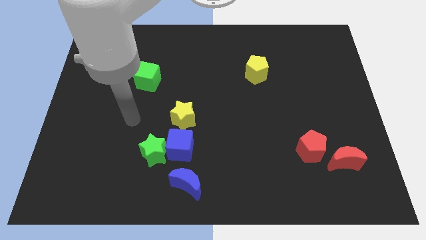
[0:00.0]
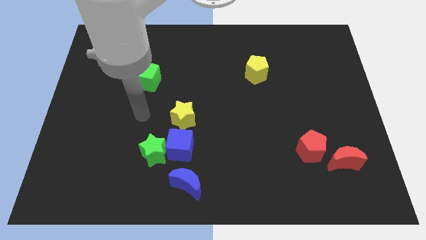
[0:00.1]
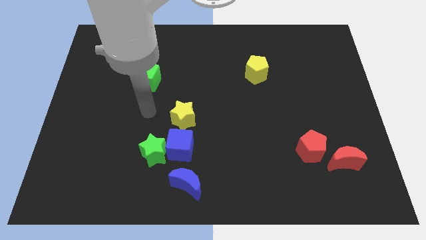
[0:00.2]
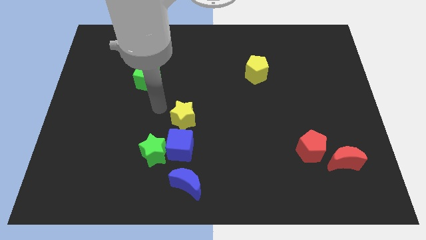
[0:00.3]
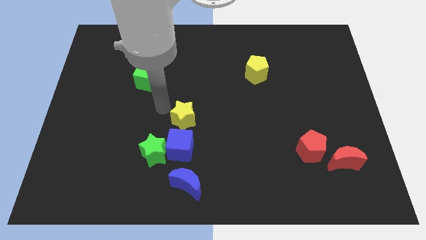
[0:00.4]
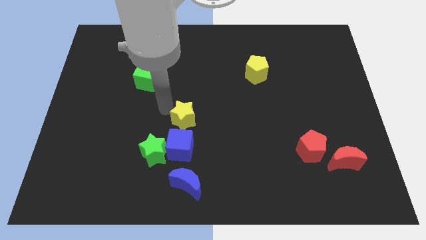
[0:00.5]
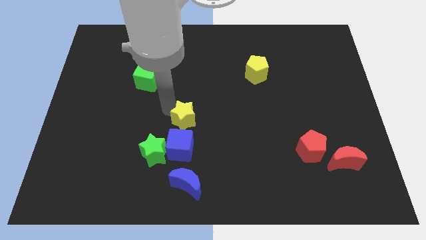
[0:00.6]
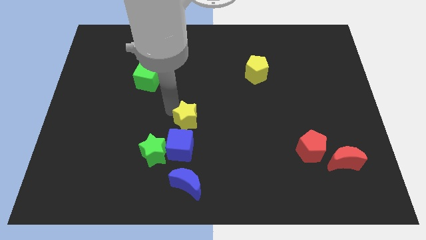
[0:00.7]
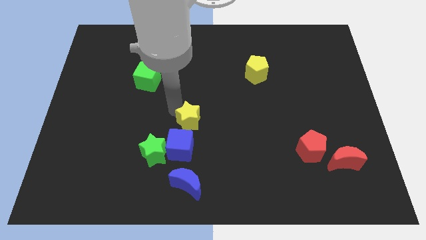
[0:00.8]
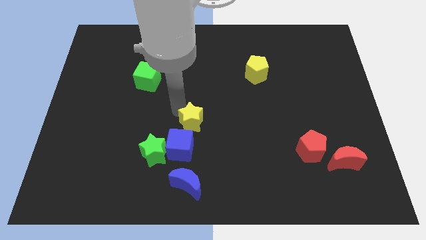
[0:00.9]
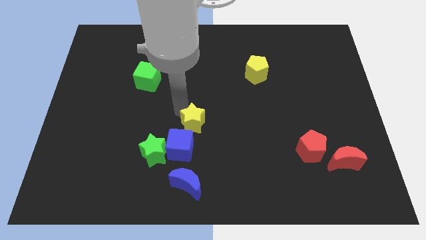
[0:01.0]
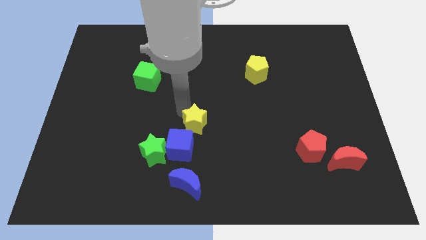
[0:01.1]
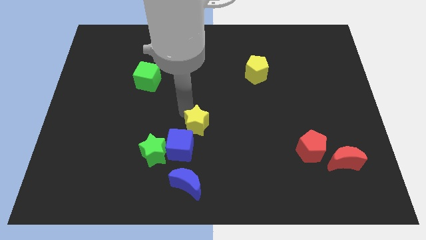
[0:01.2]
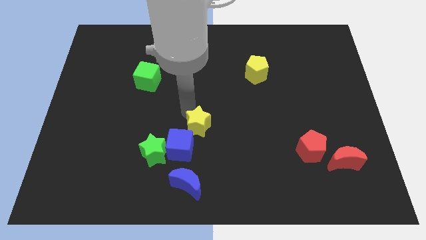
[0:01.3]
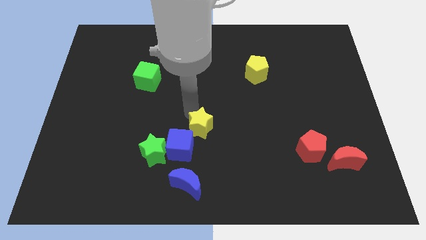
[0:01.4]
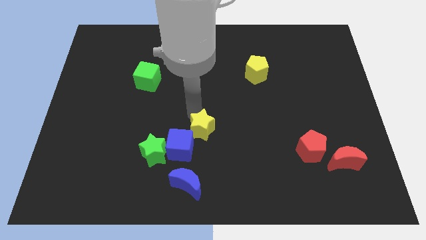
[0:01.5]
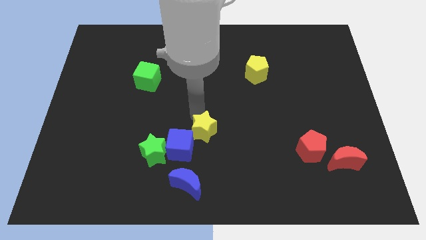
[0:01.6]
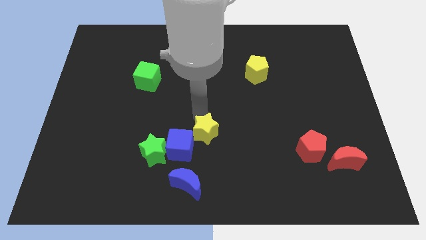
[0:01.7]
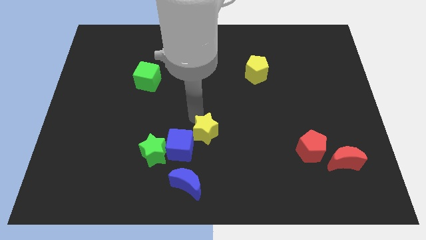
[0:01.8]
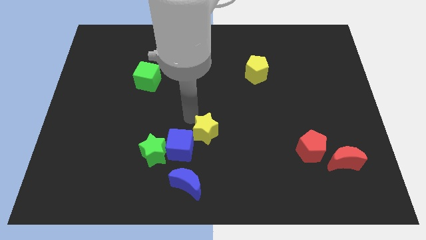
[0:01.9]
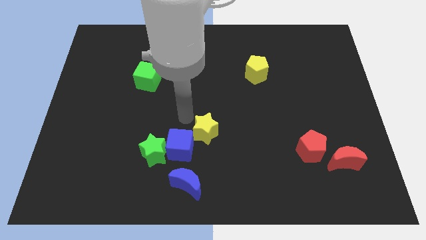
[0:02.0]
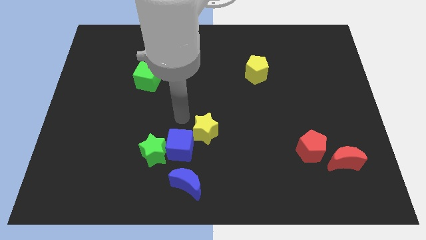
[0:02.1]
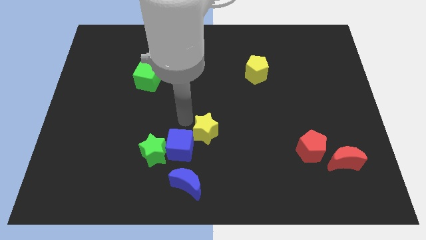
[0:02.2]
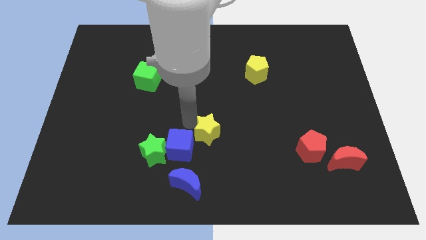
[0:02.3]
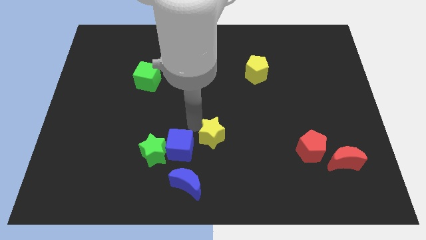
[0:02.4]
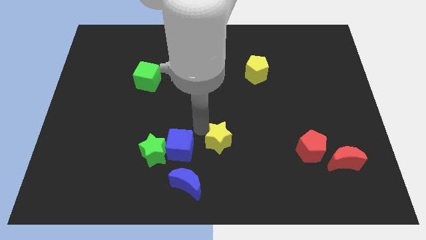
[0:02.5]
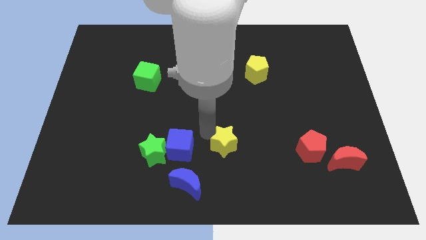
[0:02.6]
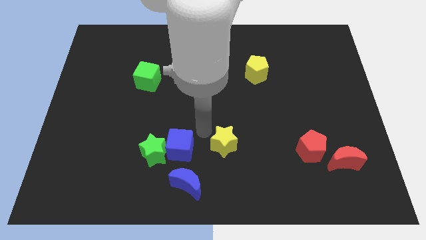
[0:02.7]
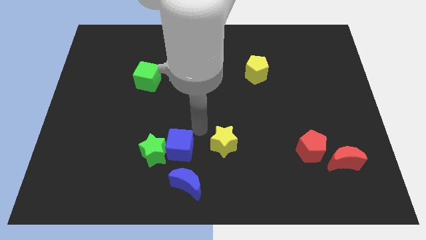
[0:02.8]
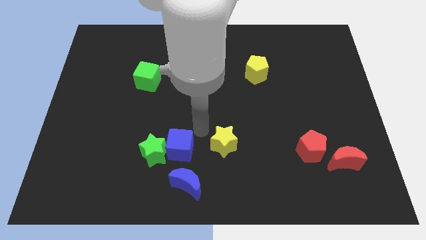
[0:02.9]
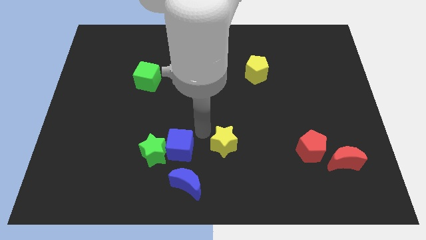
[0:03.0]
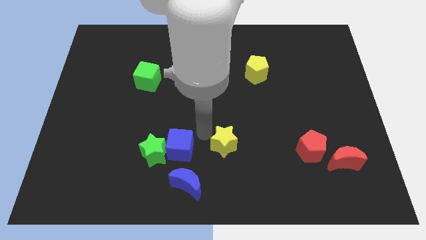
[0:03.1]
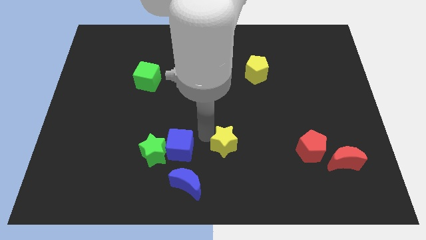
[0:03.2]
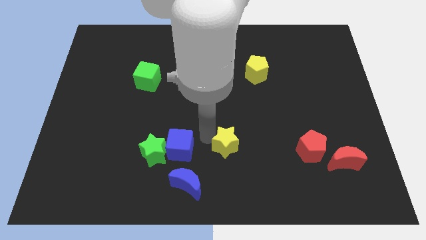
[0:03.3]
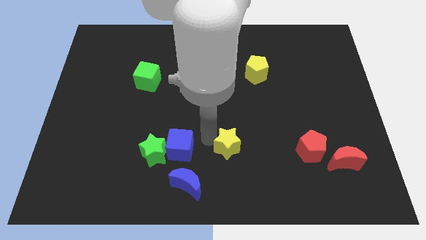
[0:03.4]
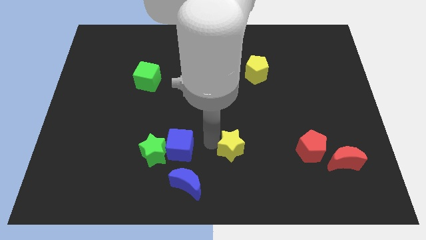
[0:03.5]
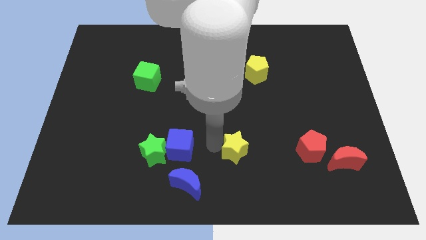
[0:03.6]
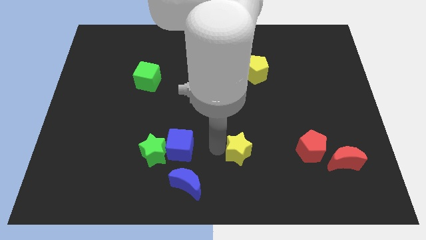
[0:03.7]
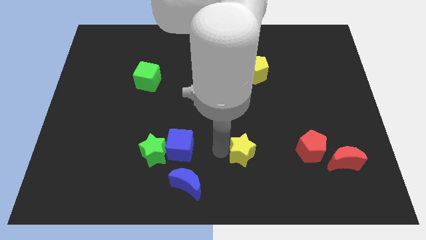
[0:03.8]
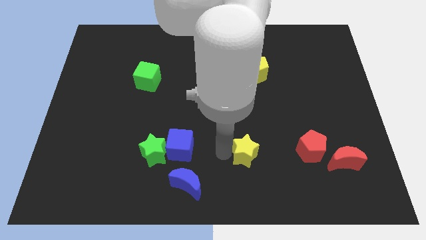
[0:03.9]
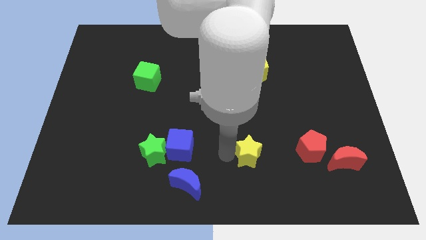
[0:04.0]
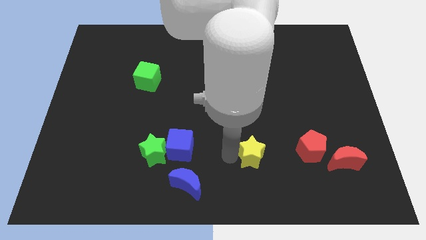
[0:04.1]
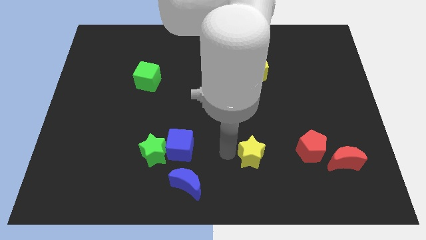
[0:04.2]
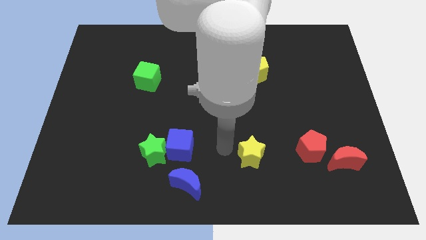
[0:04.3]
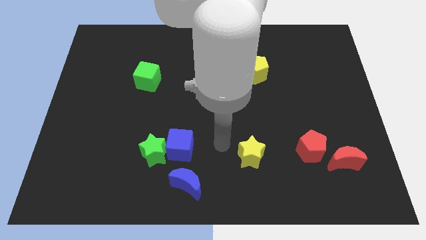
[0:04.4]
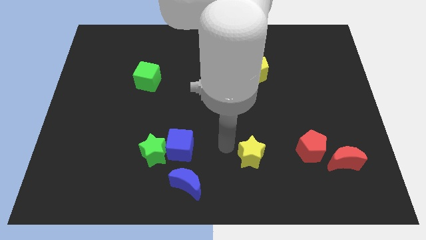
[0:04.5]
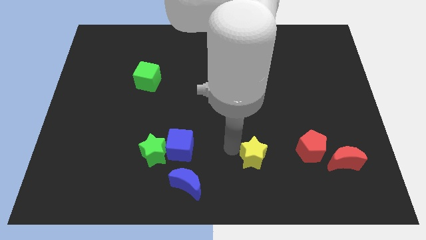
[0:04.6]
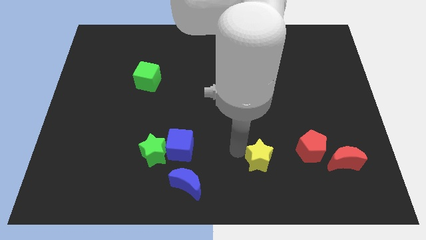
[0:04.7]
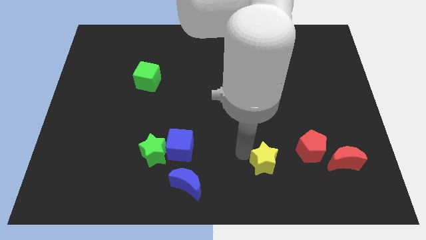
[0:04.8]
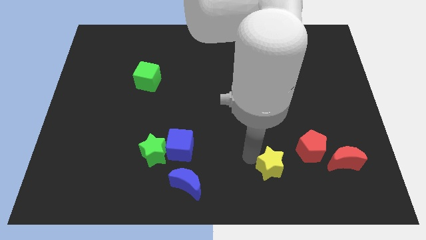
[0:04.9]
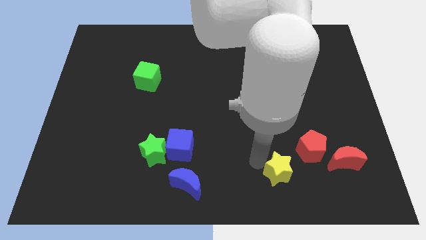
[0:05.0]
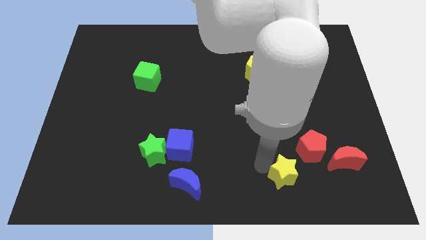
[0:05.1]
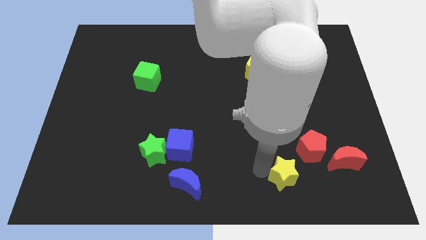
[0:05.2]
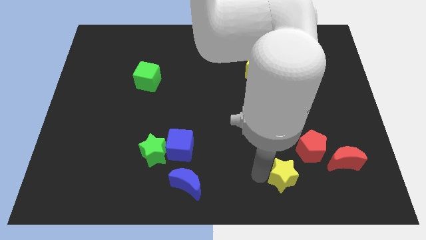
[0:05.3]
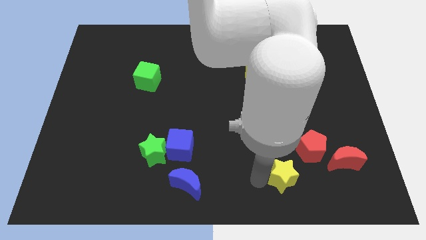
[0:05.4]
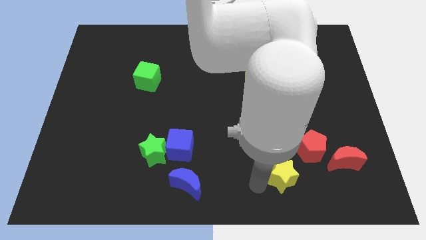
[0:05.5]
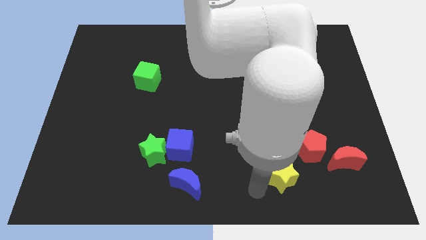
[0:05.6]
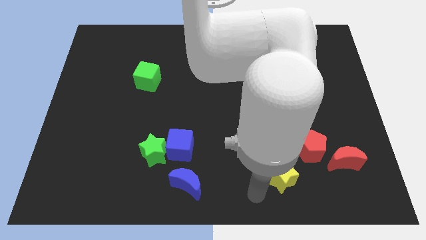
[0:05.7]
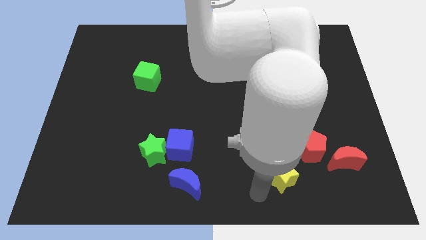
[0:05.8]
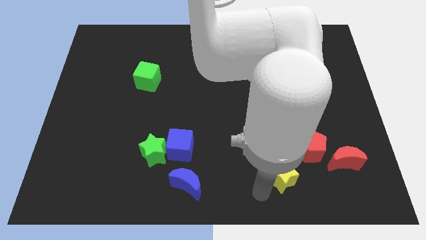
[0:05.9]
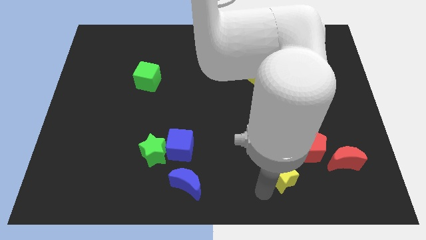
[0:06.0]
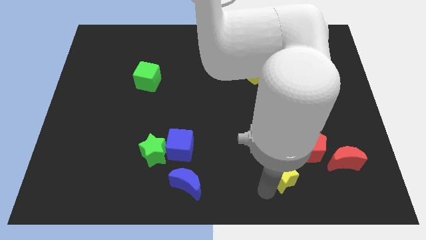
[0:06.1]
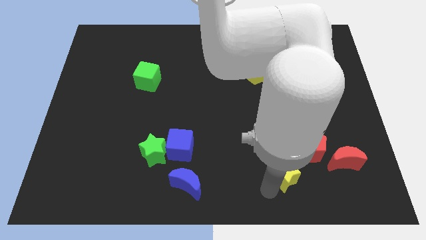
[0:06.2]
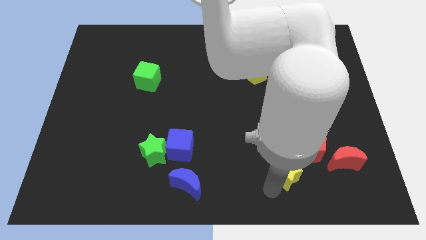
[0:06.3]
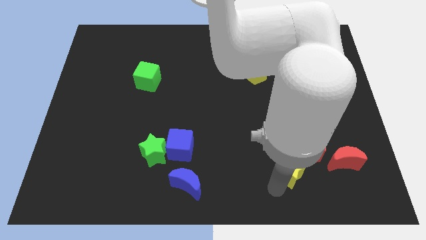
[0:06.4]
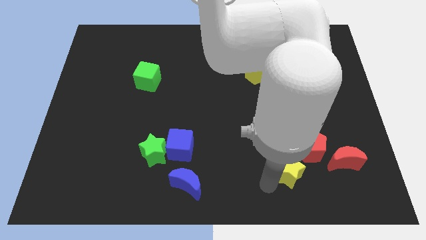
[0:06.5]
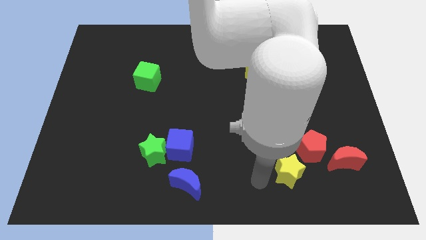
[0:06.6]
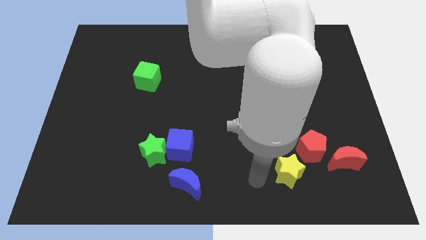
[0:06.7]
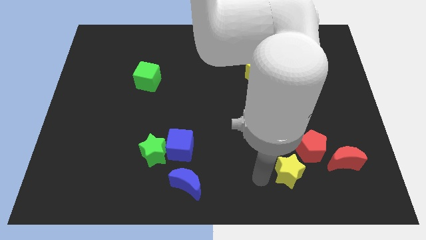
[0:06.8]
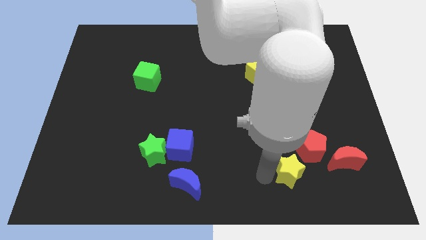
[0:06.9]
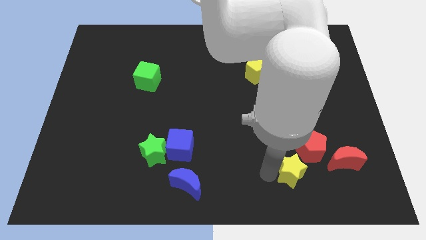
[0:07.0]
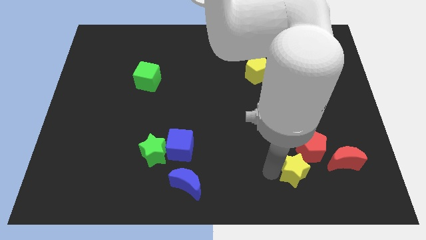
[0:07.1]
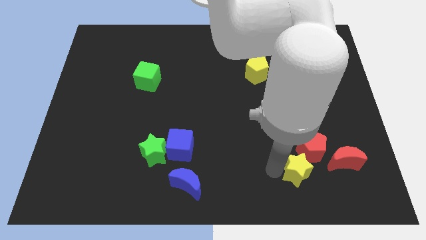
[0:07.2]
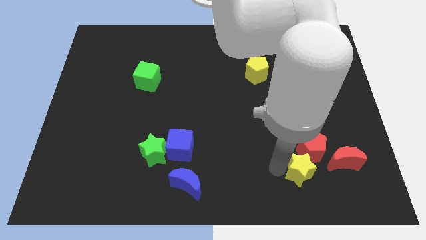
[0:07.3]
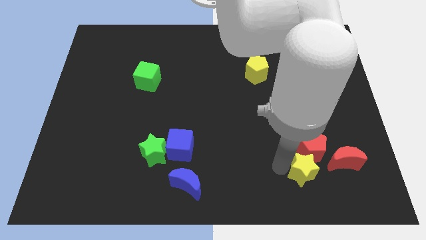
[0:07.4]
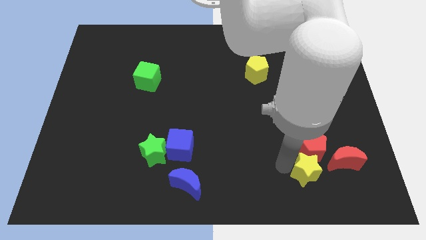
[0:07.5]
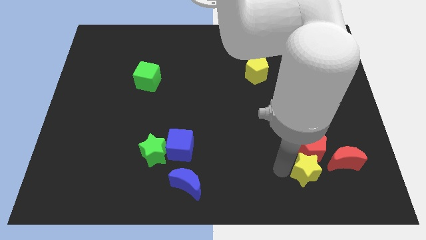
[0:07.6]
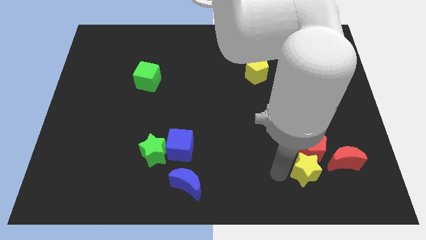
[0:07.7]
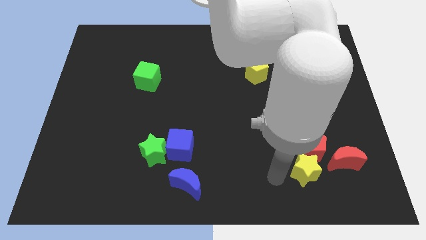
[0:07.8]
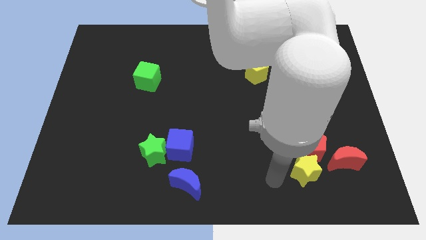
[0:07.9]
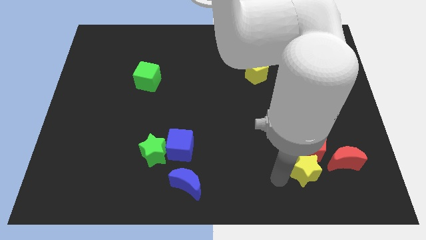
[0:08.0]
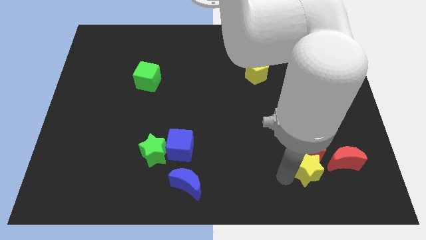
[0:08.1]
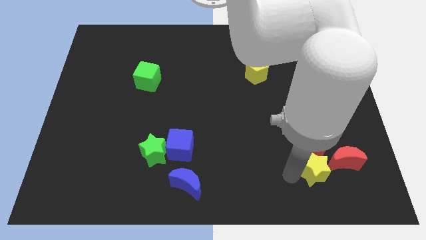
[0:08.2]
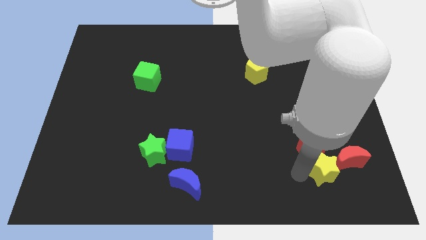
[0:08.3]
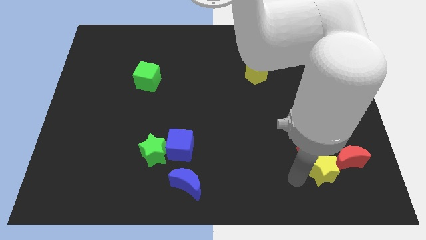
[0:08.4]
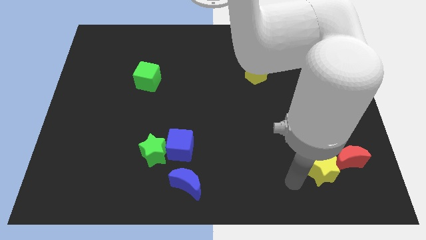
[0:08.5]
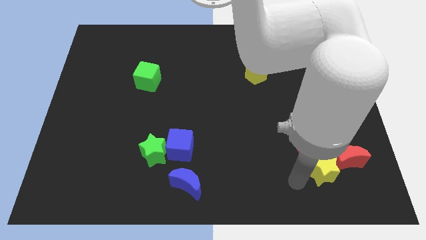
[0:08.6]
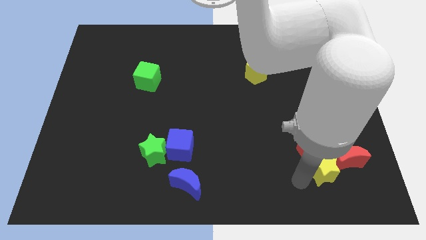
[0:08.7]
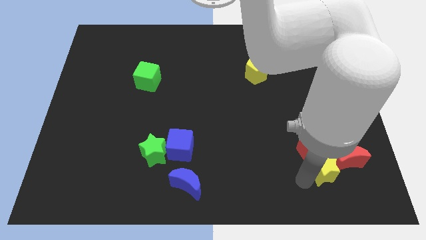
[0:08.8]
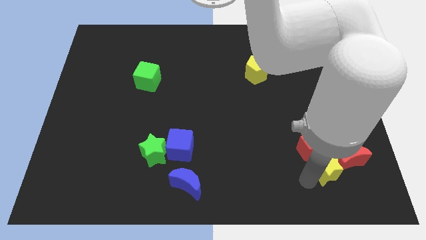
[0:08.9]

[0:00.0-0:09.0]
move the yellow star towards the red moon
